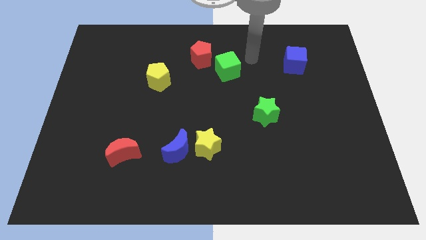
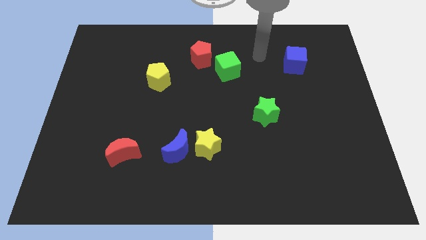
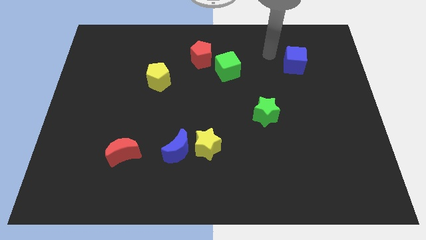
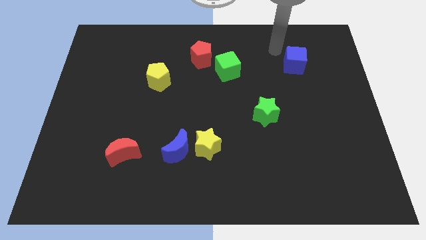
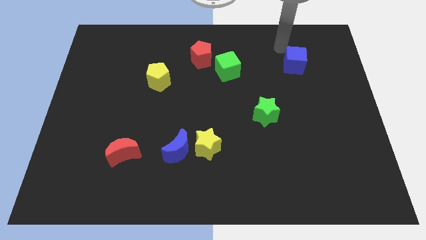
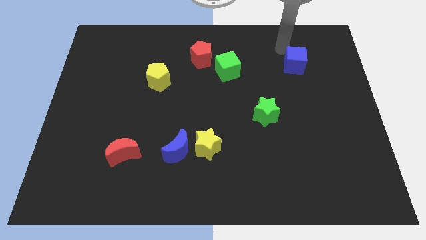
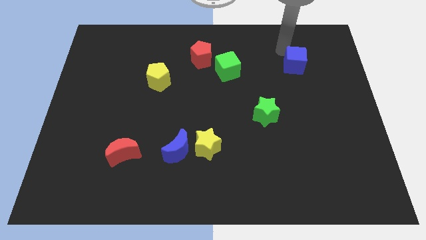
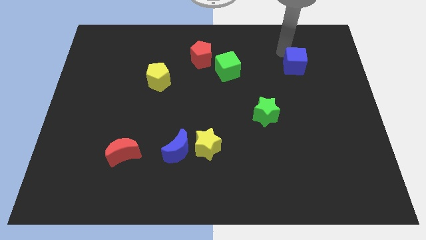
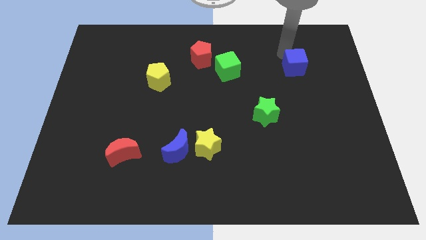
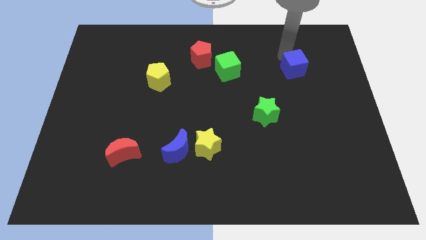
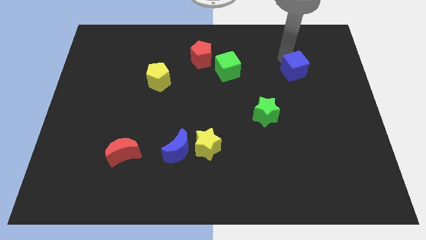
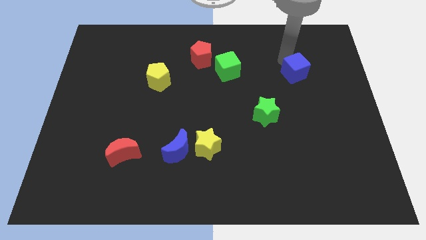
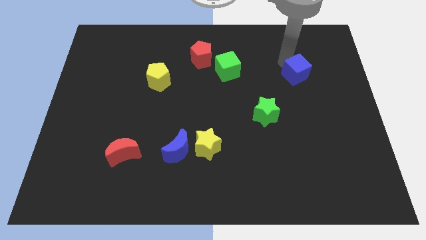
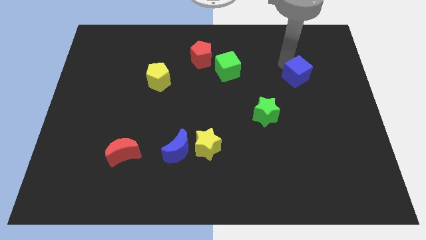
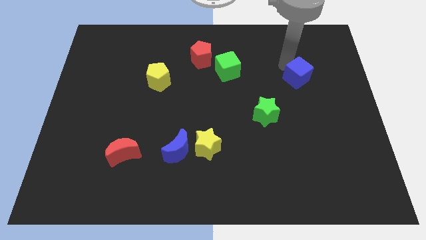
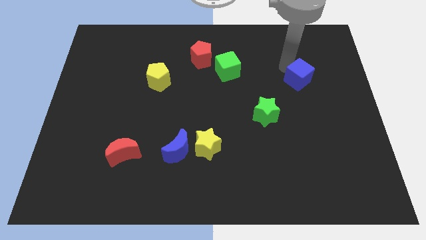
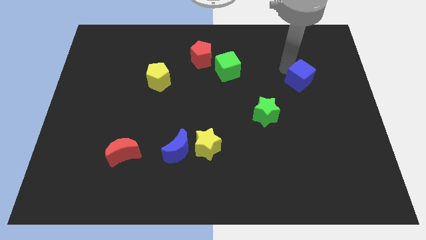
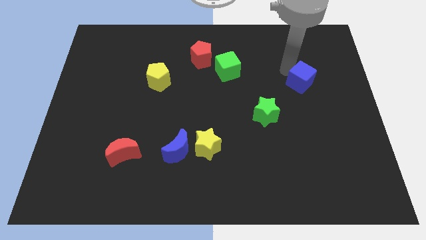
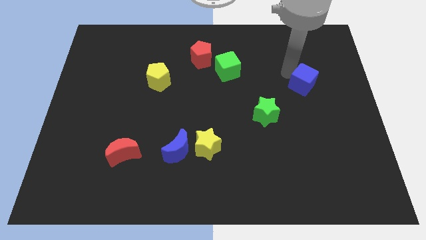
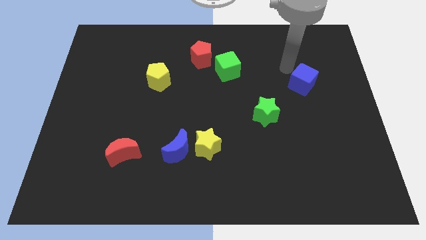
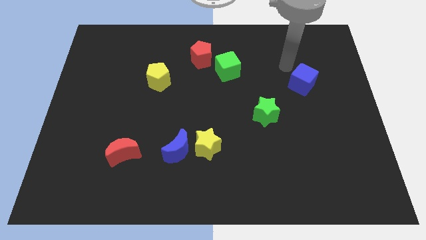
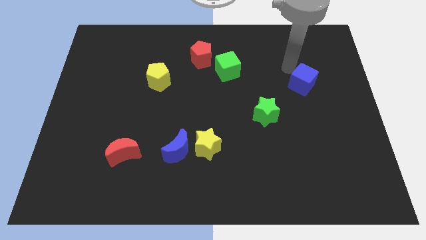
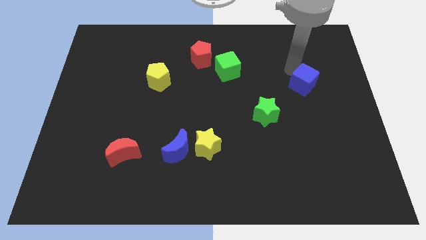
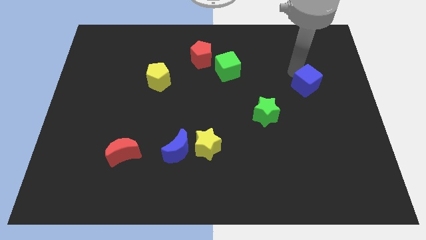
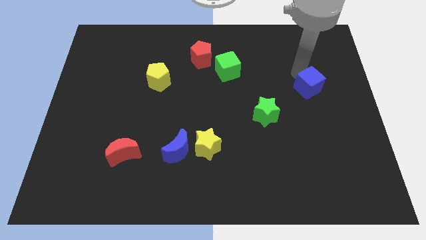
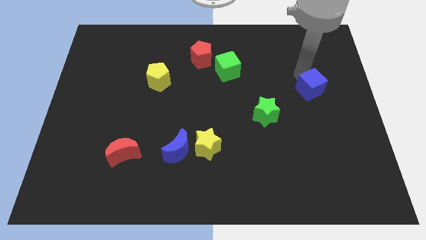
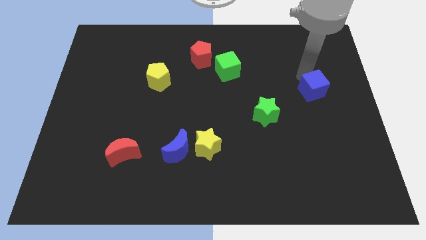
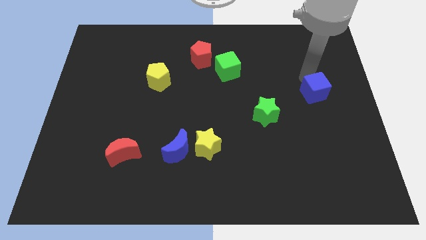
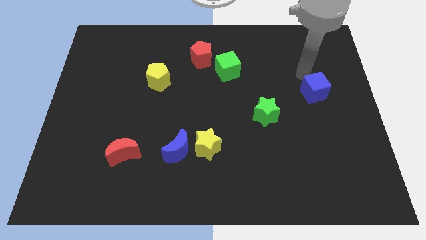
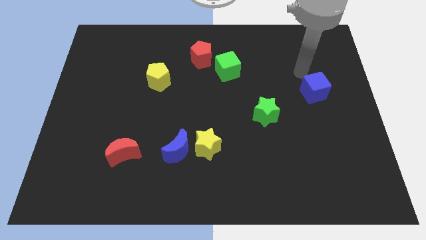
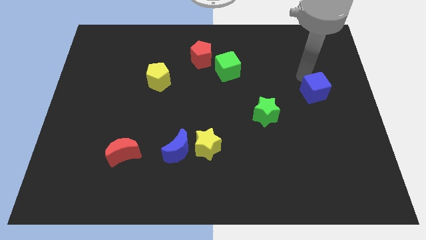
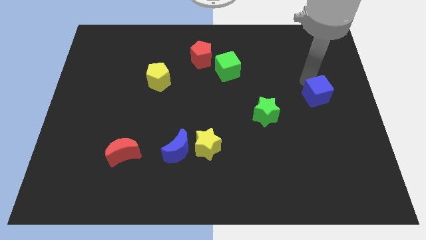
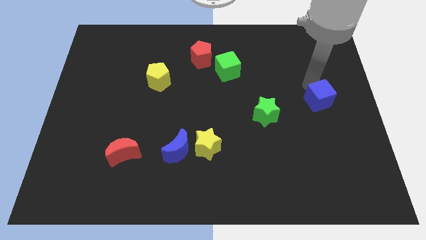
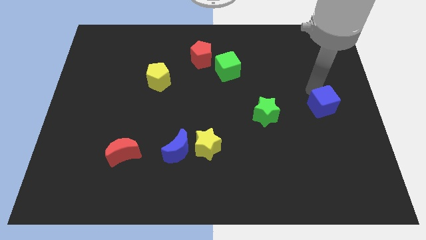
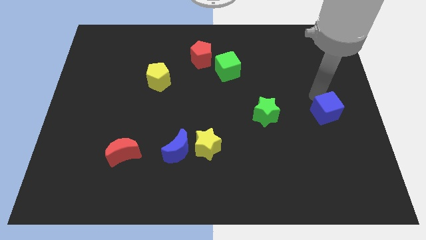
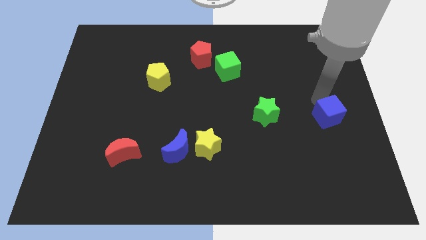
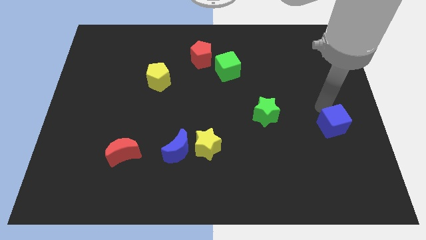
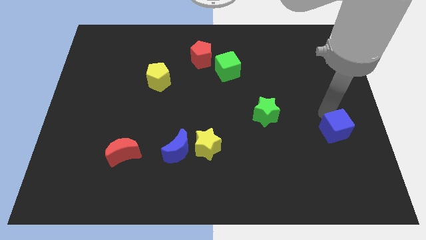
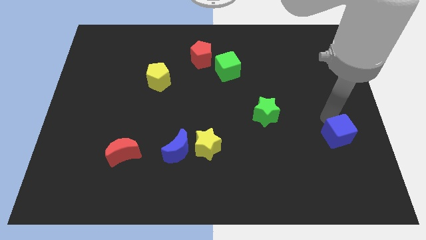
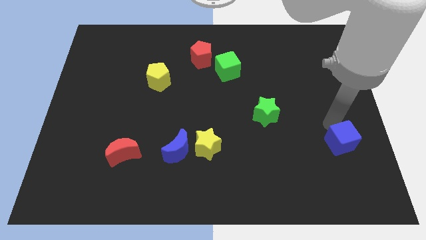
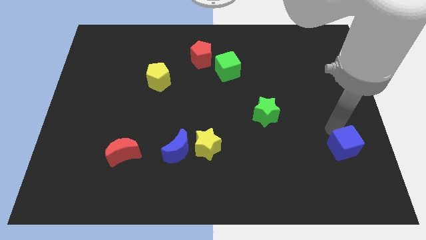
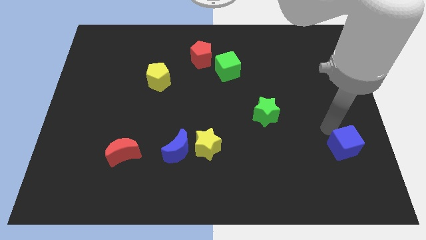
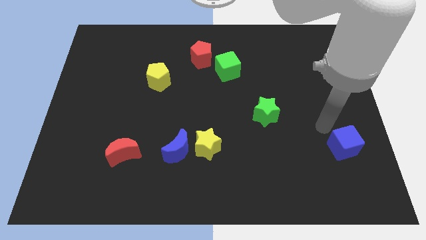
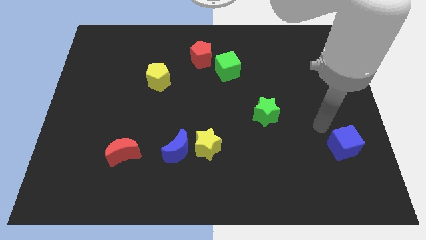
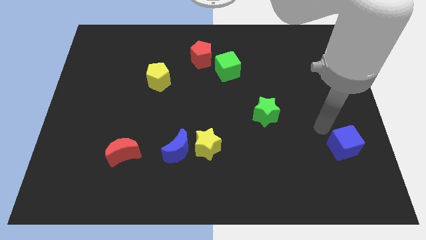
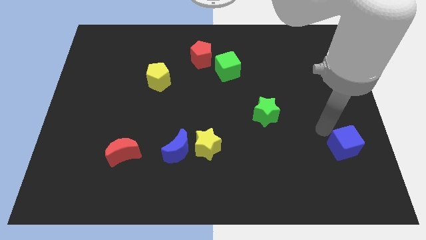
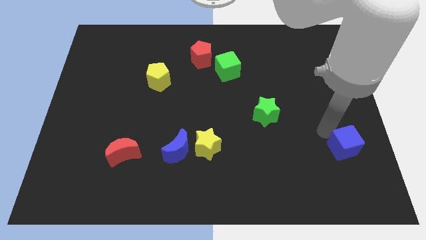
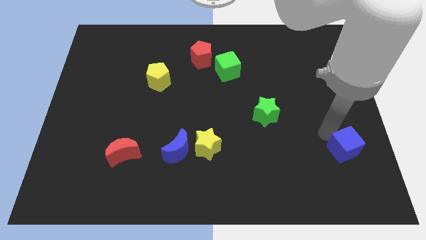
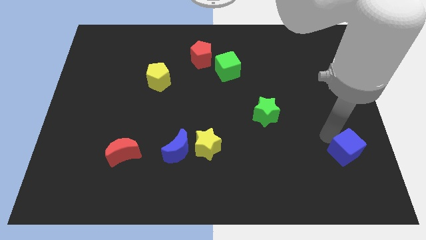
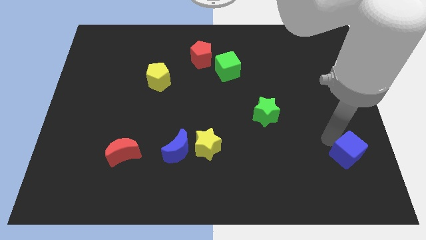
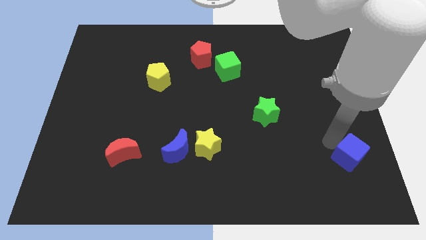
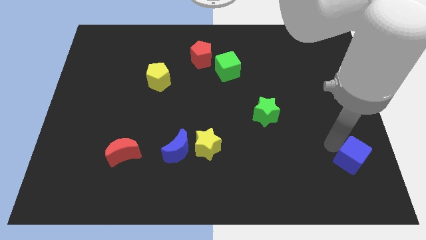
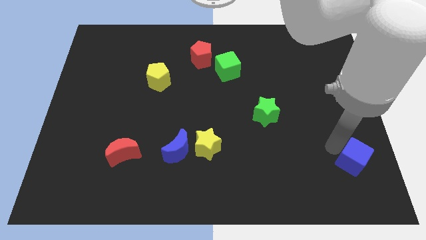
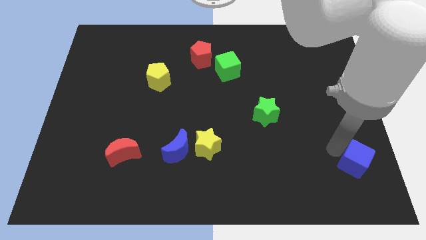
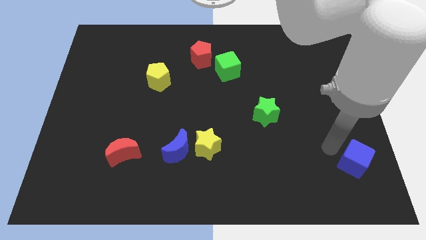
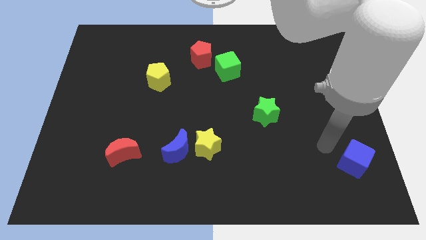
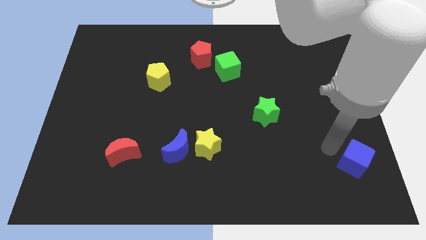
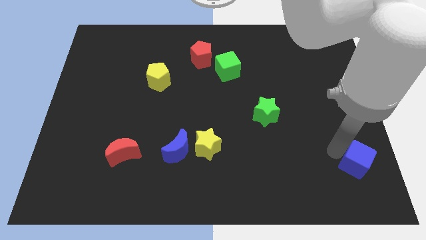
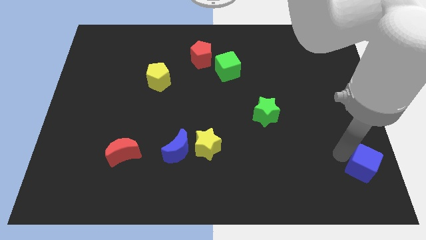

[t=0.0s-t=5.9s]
slide the blue cube to the bottom right of the board
